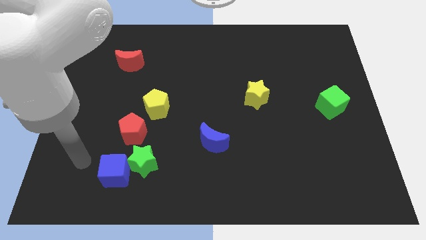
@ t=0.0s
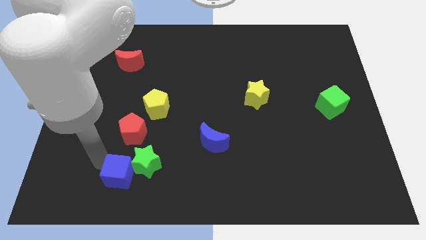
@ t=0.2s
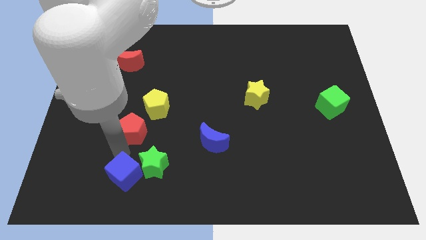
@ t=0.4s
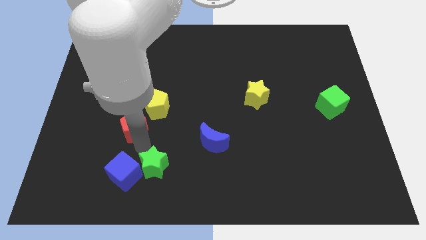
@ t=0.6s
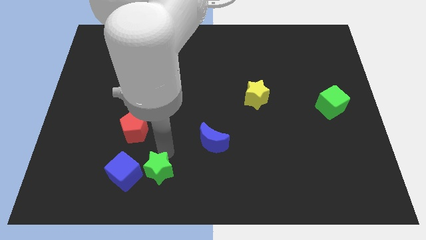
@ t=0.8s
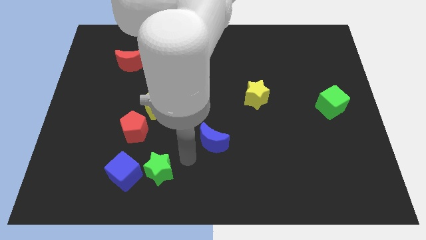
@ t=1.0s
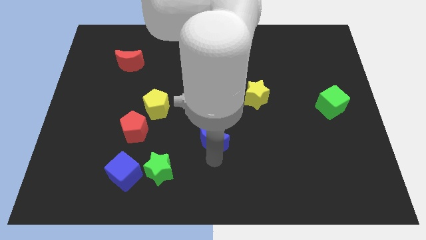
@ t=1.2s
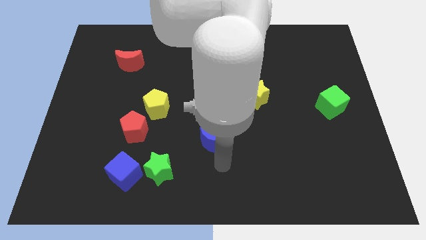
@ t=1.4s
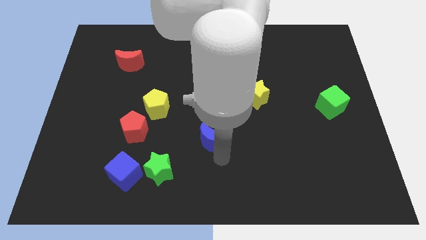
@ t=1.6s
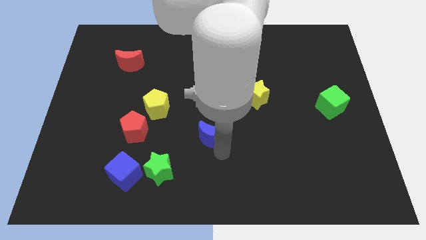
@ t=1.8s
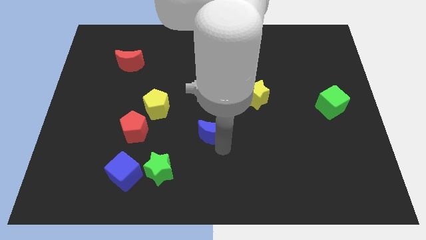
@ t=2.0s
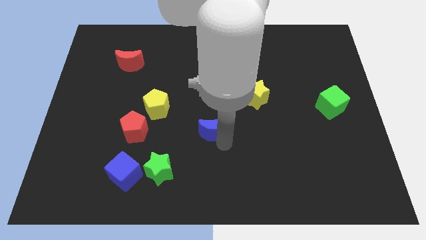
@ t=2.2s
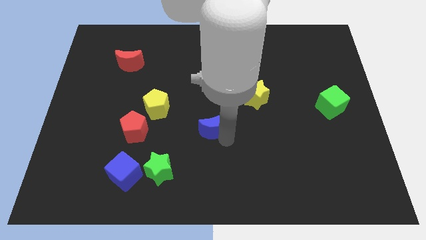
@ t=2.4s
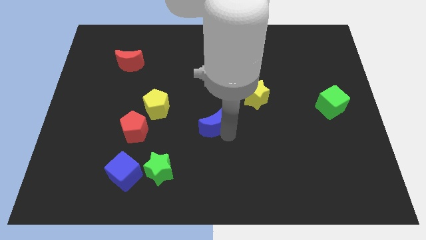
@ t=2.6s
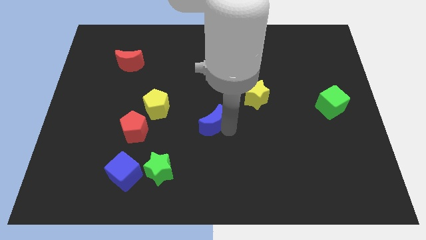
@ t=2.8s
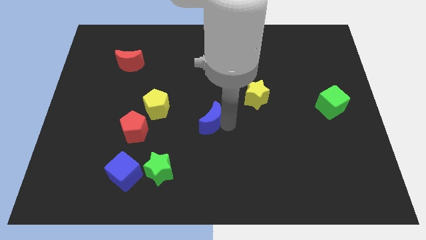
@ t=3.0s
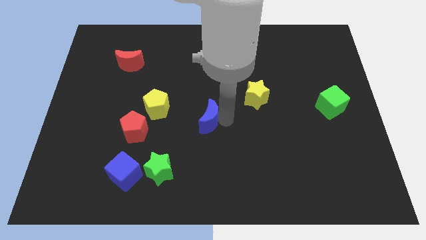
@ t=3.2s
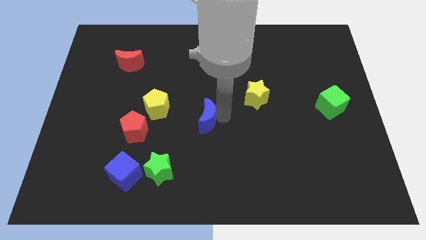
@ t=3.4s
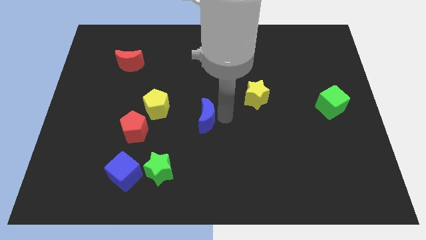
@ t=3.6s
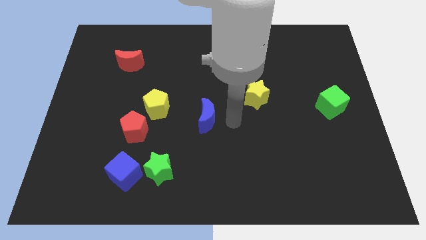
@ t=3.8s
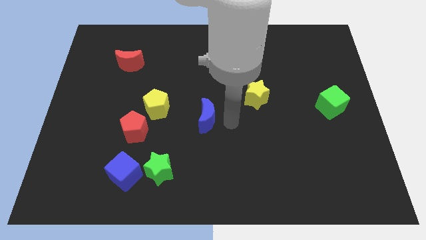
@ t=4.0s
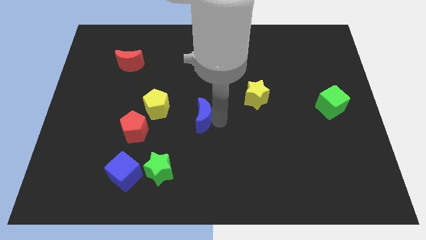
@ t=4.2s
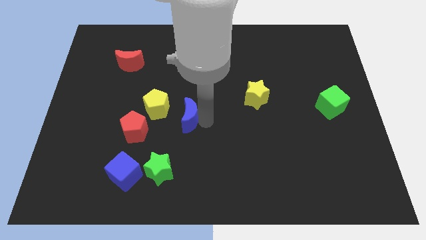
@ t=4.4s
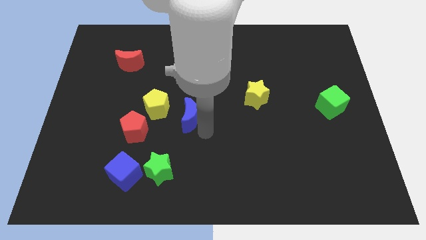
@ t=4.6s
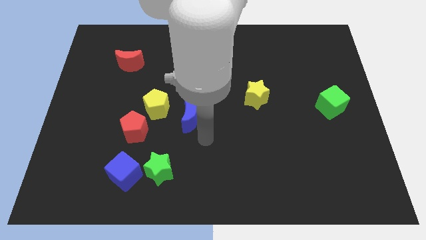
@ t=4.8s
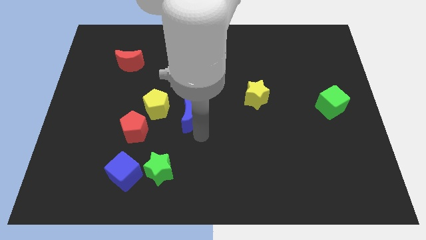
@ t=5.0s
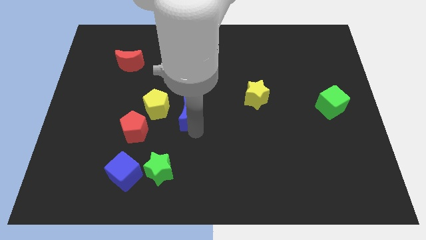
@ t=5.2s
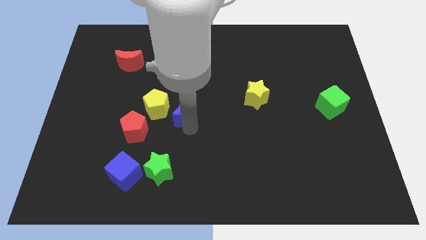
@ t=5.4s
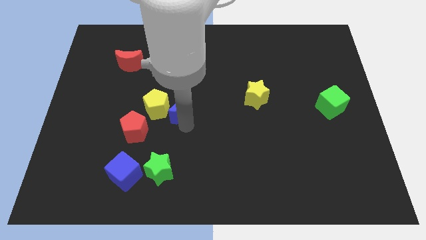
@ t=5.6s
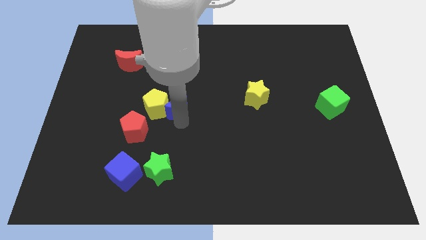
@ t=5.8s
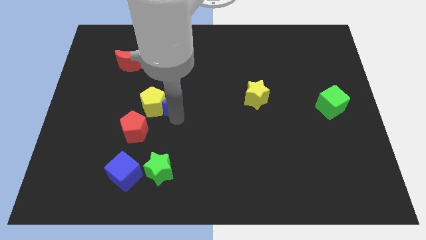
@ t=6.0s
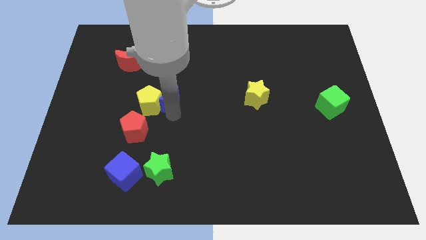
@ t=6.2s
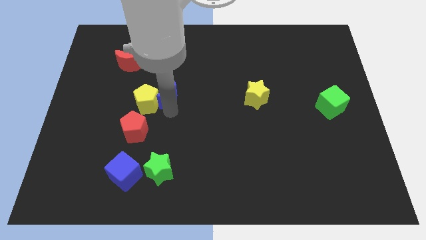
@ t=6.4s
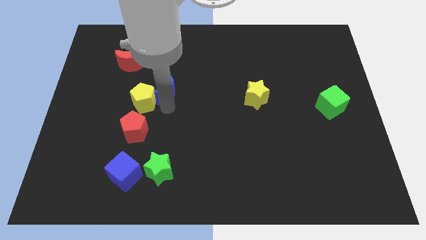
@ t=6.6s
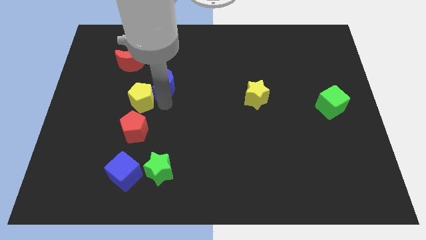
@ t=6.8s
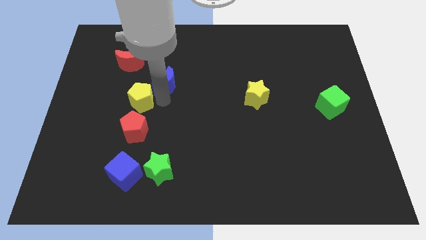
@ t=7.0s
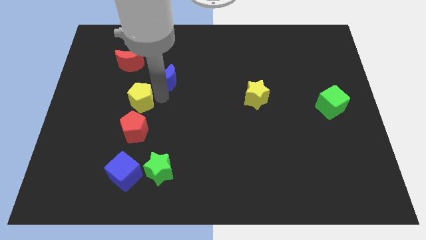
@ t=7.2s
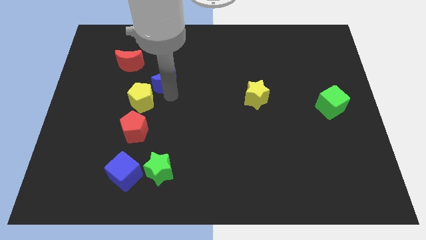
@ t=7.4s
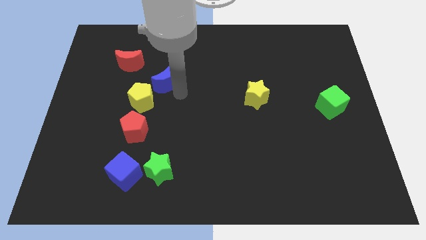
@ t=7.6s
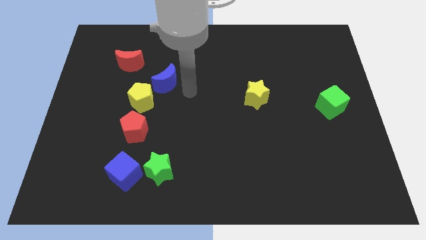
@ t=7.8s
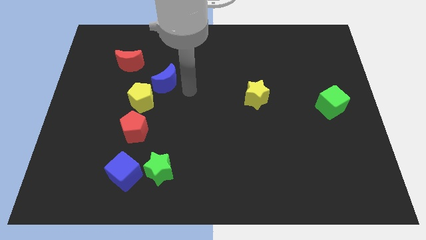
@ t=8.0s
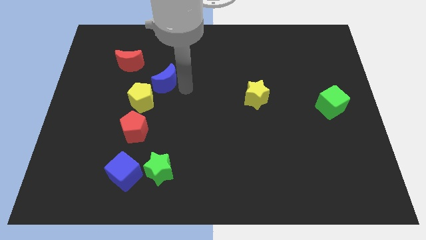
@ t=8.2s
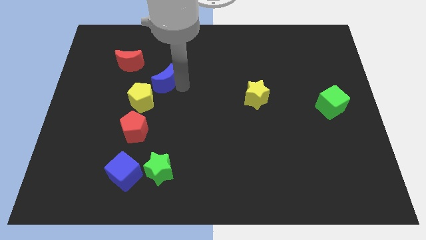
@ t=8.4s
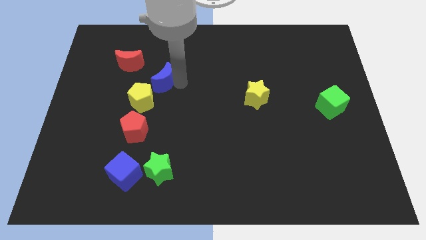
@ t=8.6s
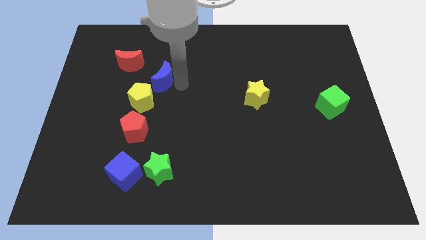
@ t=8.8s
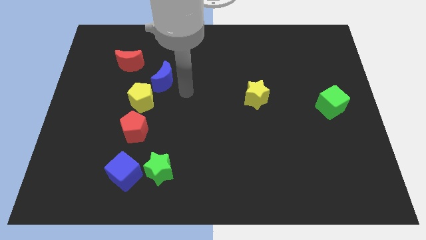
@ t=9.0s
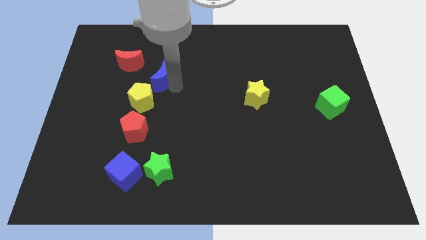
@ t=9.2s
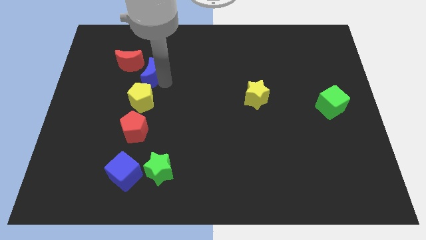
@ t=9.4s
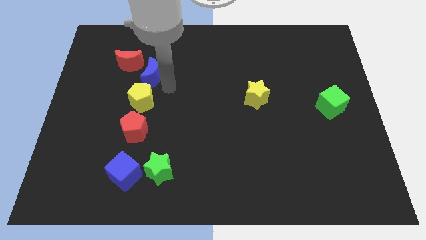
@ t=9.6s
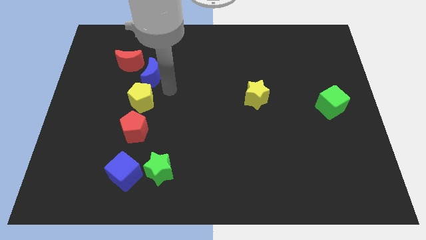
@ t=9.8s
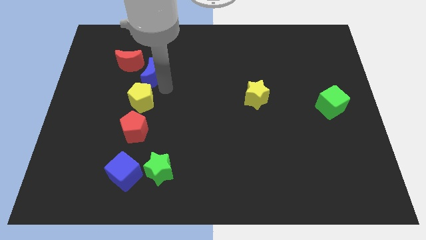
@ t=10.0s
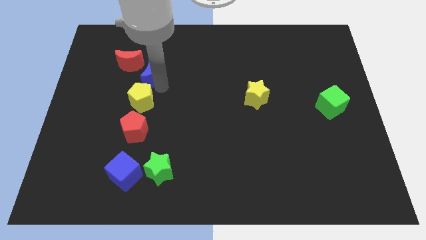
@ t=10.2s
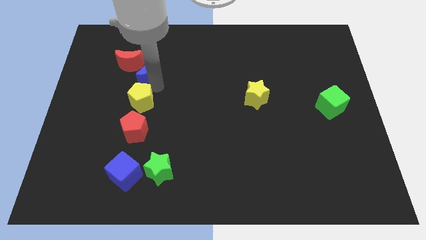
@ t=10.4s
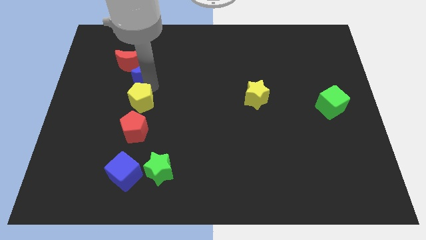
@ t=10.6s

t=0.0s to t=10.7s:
move the blue moon to the red moon

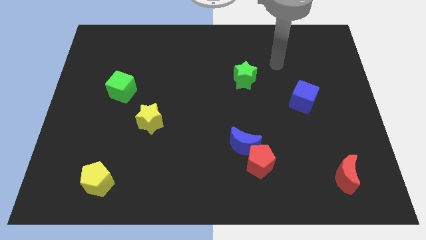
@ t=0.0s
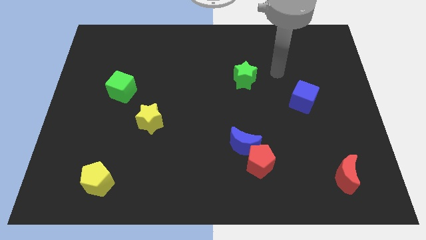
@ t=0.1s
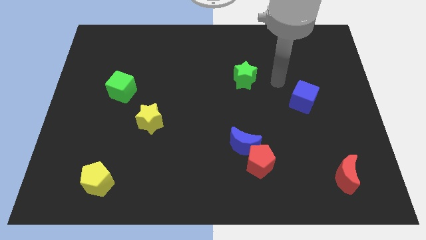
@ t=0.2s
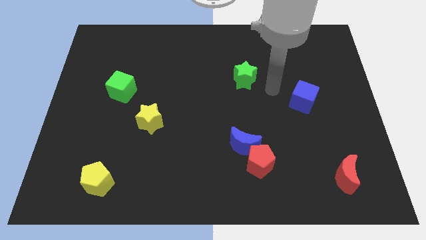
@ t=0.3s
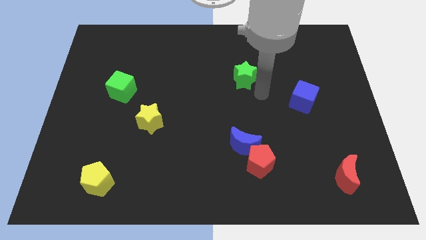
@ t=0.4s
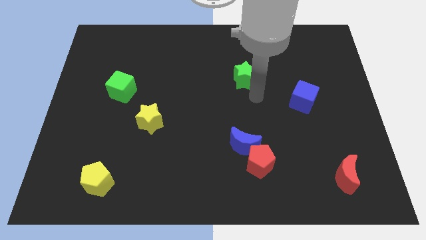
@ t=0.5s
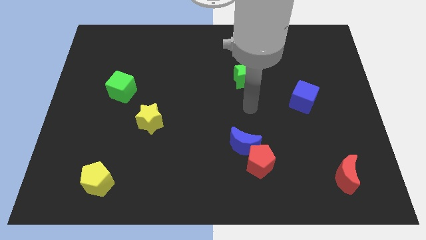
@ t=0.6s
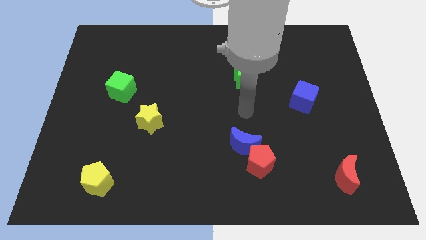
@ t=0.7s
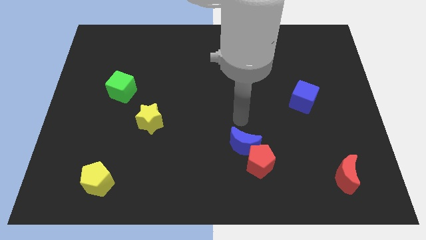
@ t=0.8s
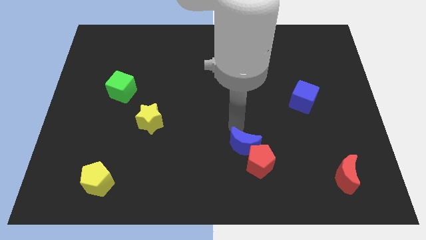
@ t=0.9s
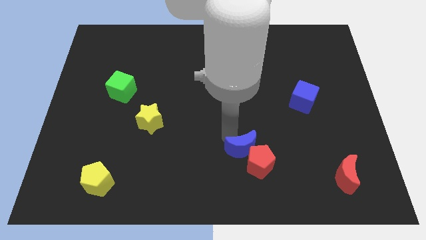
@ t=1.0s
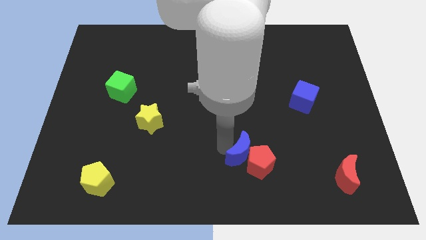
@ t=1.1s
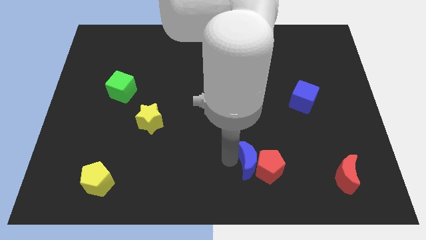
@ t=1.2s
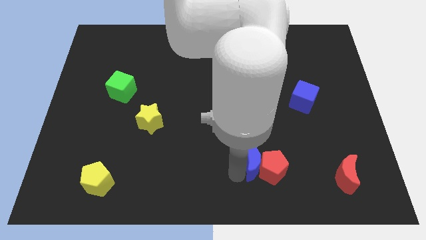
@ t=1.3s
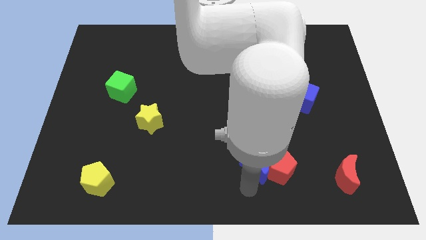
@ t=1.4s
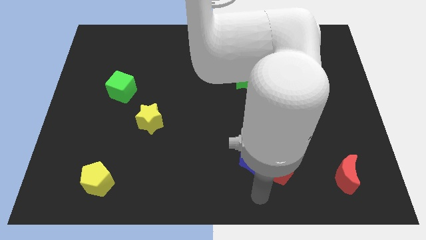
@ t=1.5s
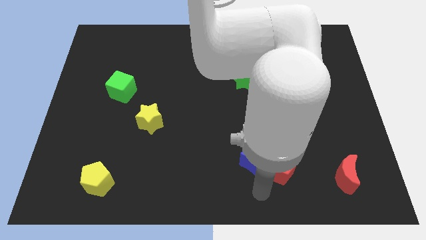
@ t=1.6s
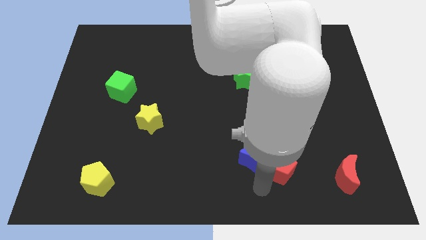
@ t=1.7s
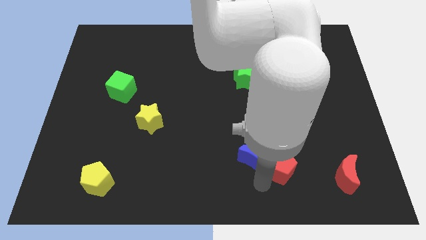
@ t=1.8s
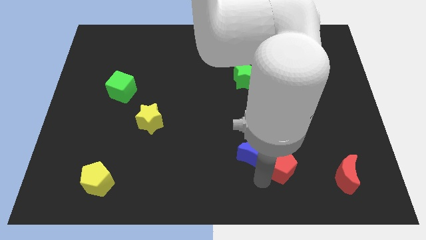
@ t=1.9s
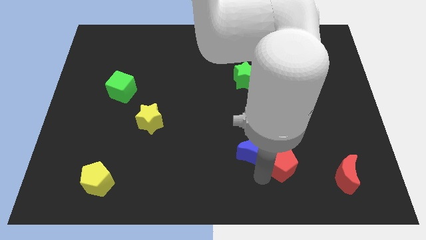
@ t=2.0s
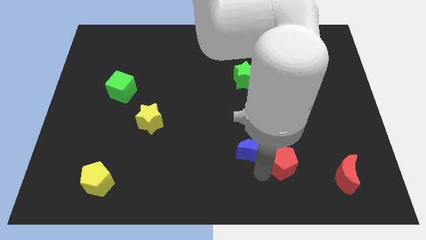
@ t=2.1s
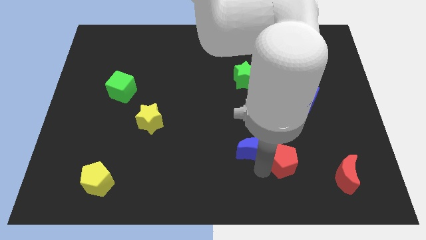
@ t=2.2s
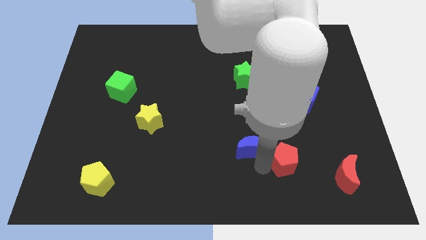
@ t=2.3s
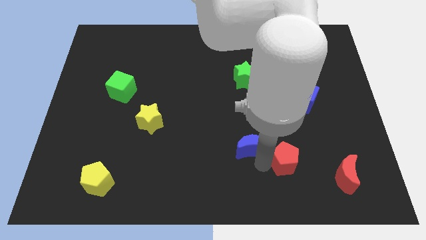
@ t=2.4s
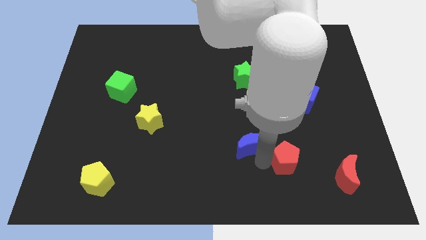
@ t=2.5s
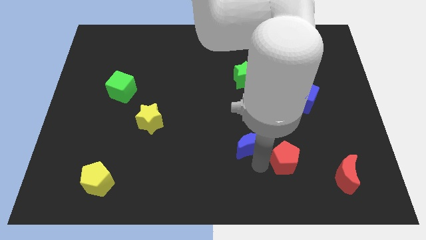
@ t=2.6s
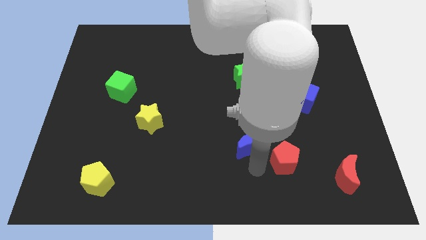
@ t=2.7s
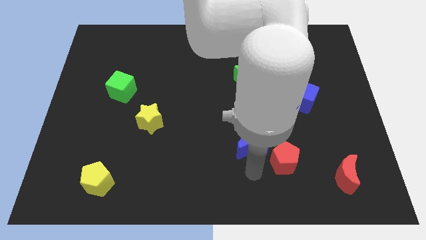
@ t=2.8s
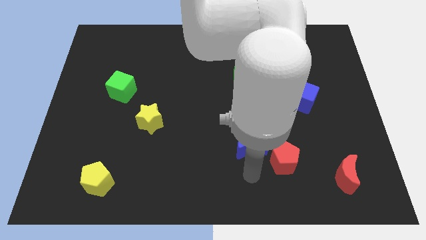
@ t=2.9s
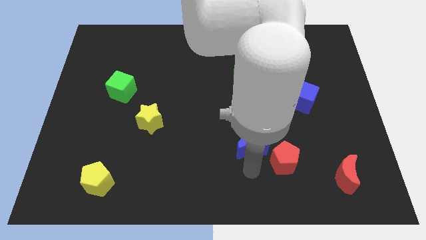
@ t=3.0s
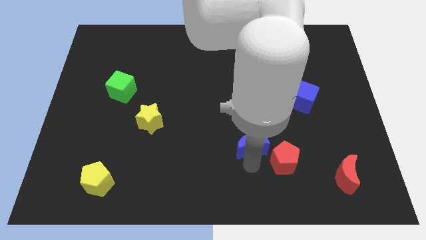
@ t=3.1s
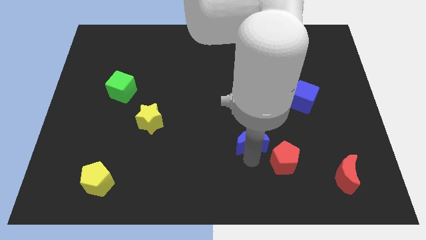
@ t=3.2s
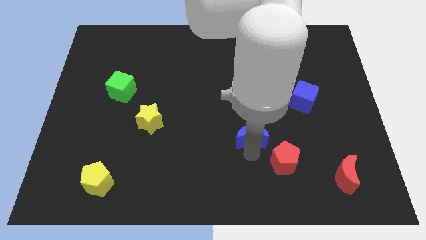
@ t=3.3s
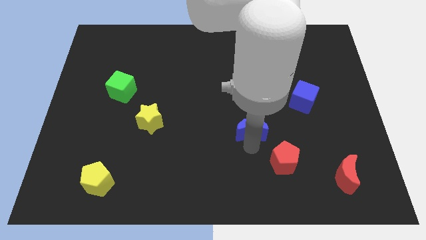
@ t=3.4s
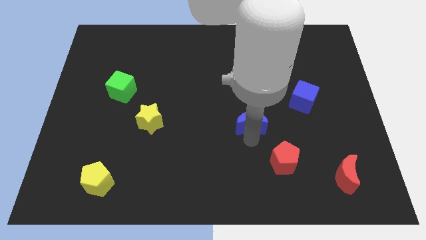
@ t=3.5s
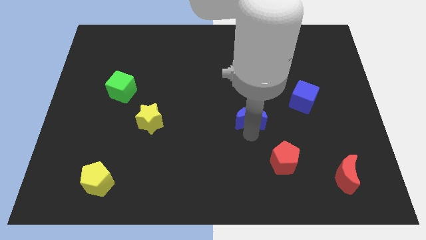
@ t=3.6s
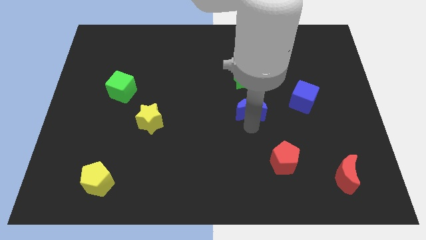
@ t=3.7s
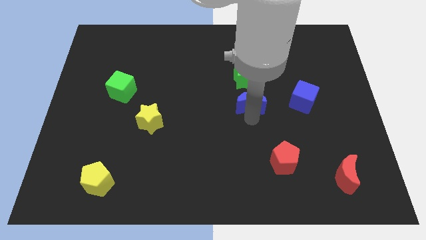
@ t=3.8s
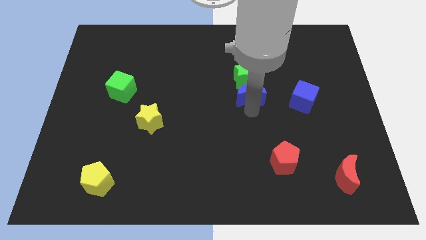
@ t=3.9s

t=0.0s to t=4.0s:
move the blue moon to the green star
